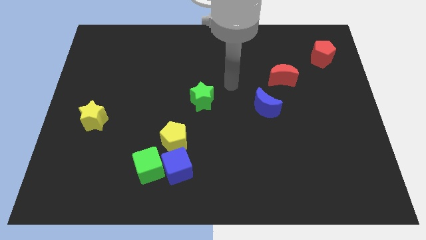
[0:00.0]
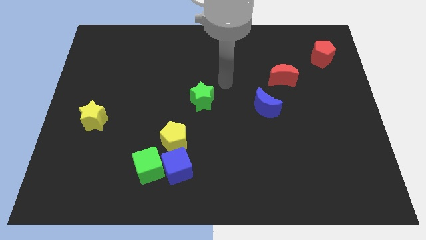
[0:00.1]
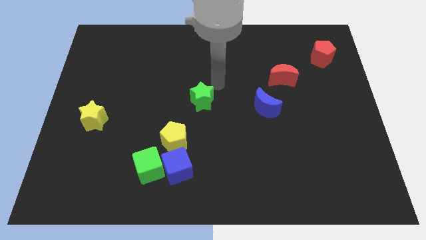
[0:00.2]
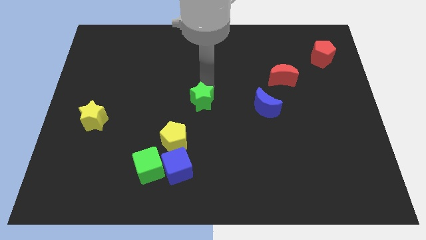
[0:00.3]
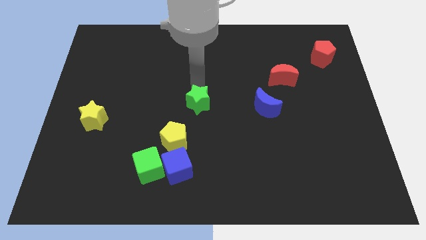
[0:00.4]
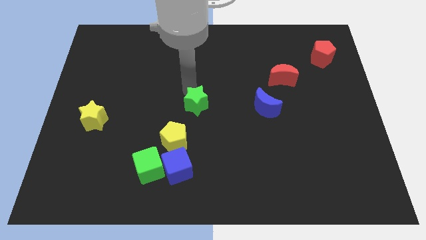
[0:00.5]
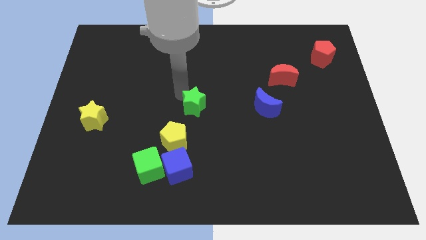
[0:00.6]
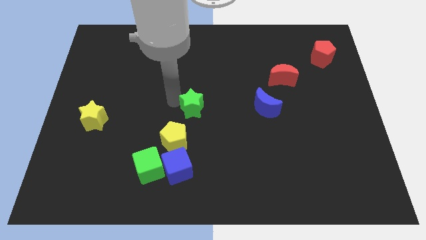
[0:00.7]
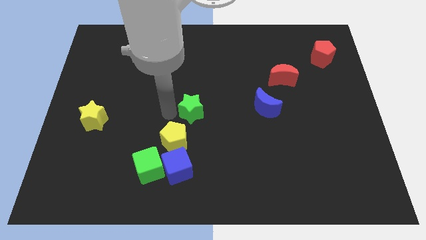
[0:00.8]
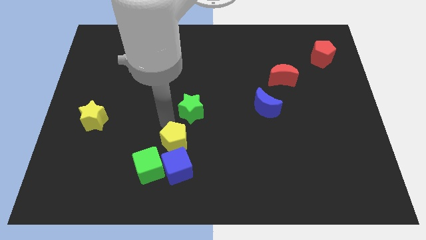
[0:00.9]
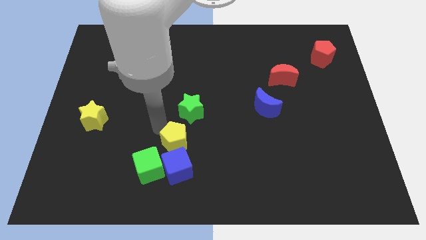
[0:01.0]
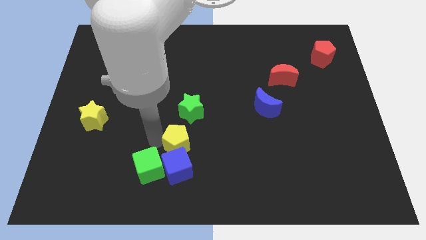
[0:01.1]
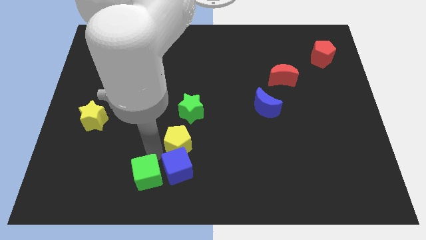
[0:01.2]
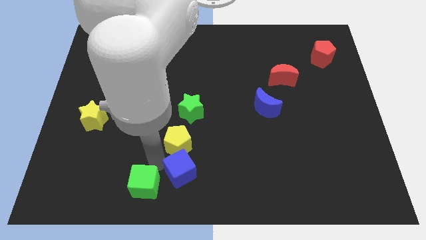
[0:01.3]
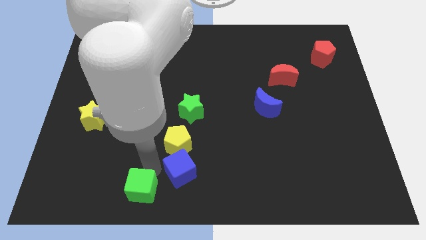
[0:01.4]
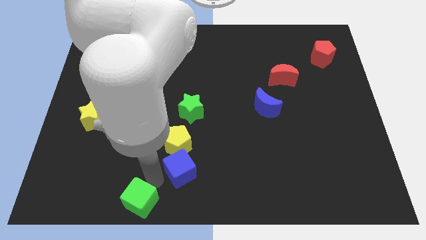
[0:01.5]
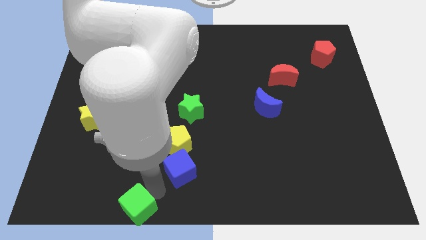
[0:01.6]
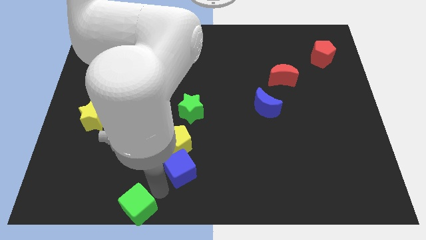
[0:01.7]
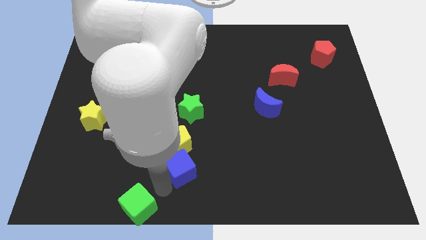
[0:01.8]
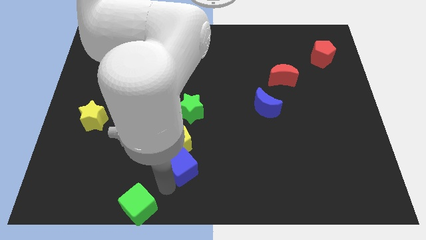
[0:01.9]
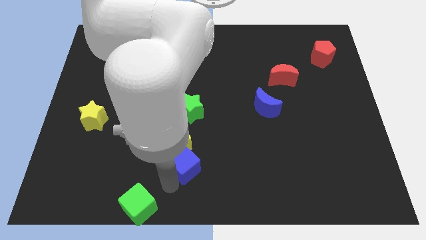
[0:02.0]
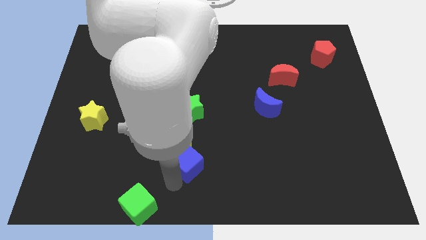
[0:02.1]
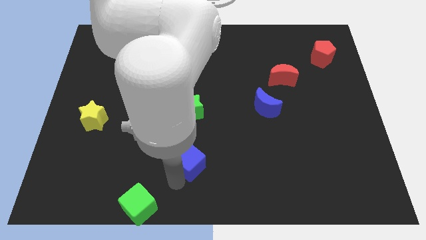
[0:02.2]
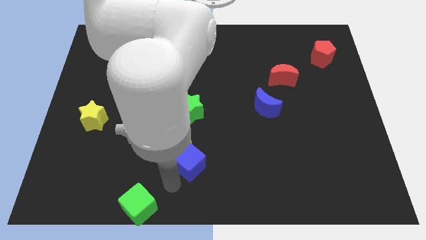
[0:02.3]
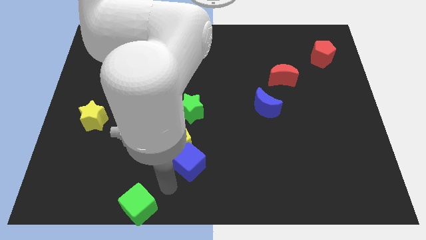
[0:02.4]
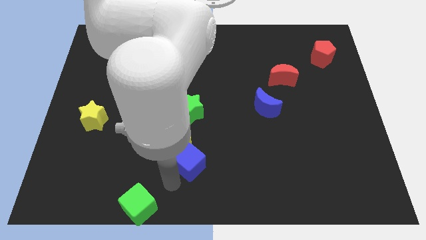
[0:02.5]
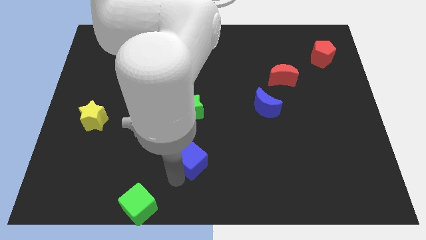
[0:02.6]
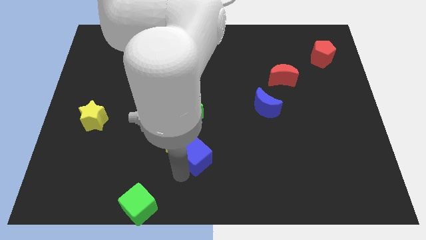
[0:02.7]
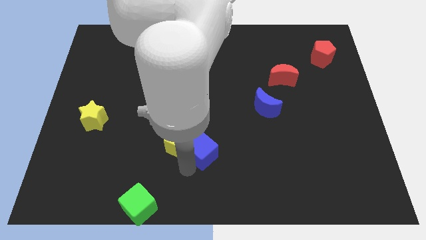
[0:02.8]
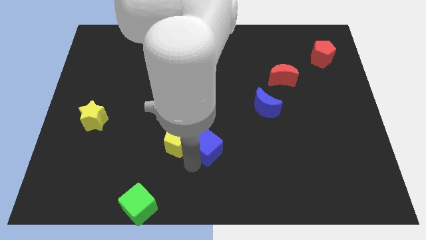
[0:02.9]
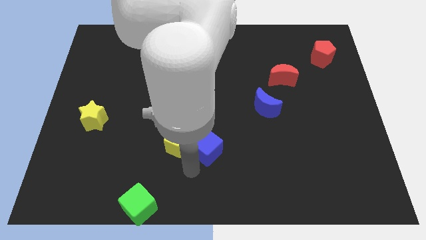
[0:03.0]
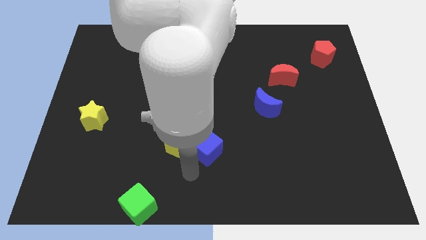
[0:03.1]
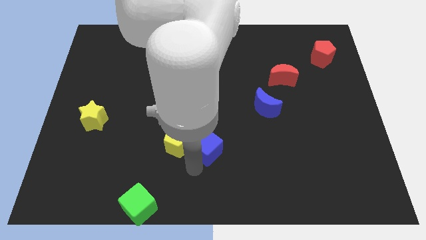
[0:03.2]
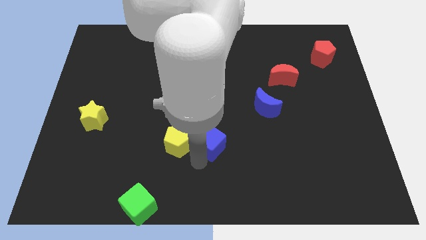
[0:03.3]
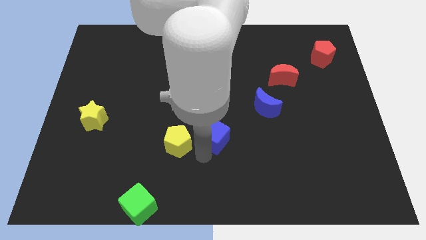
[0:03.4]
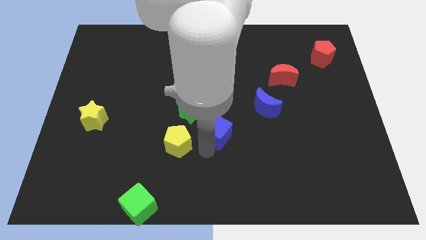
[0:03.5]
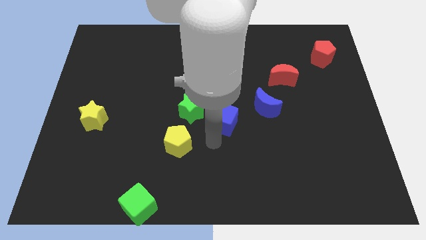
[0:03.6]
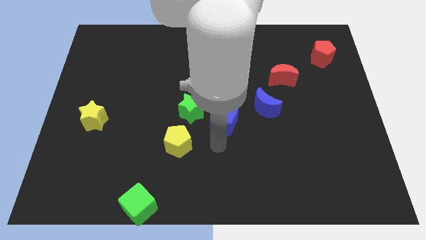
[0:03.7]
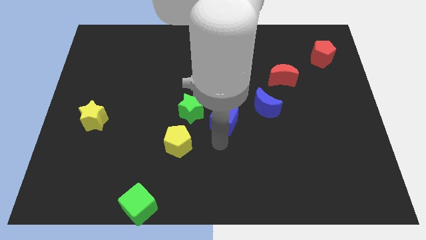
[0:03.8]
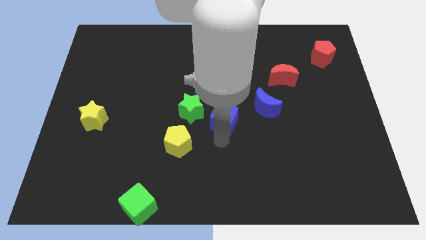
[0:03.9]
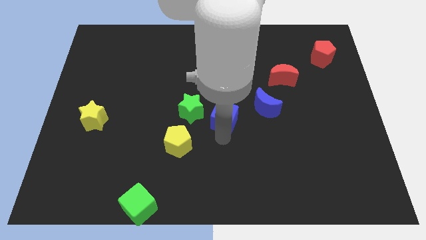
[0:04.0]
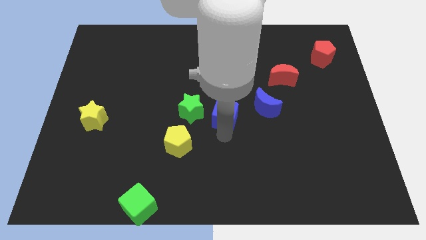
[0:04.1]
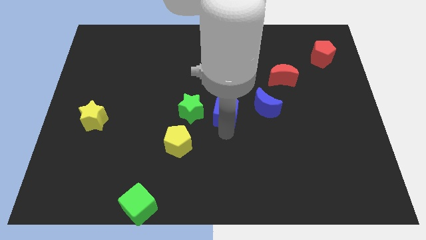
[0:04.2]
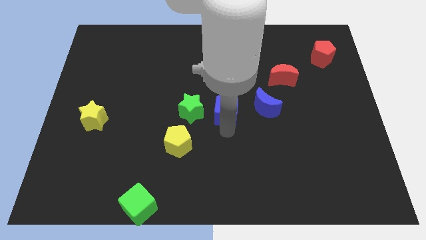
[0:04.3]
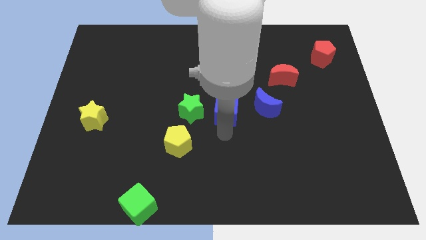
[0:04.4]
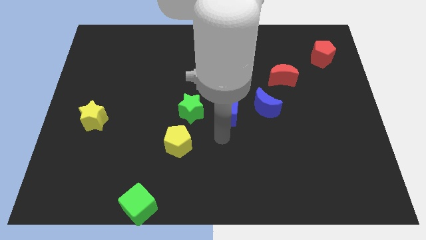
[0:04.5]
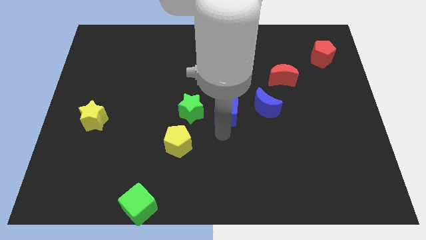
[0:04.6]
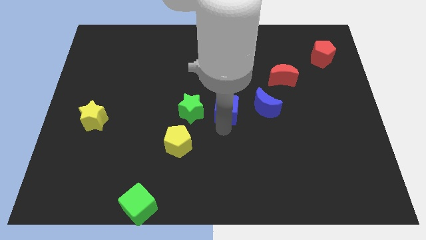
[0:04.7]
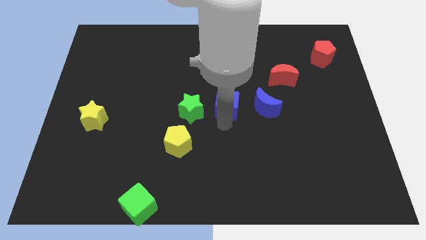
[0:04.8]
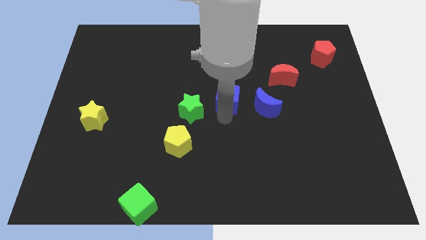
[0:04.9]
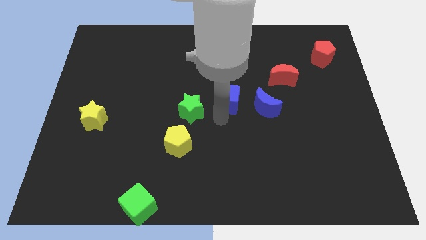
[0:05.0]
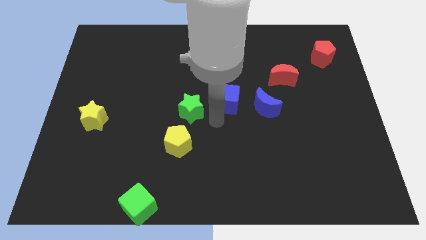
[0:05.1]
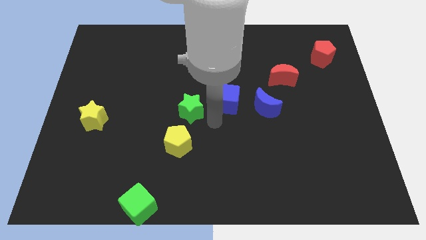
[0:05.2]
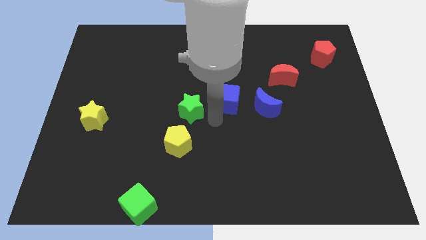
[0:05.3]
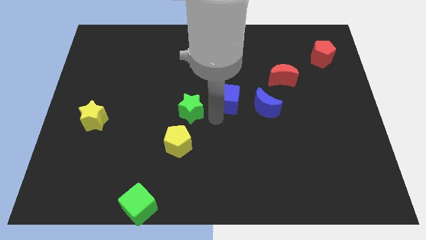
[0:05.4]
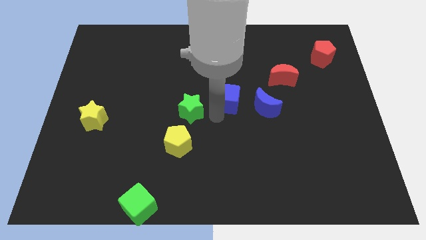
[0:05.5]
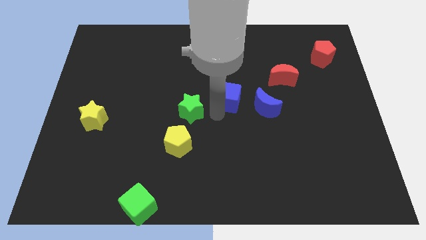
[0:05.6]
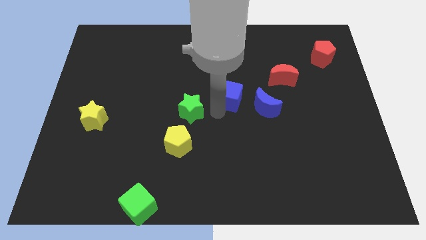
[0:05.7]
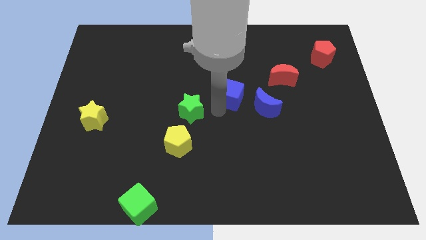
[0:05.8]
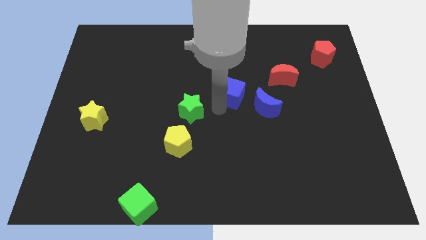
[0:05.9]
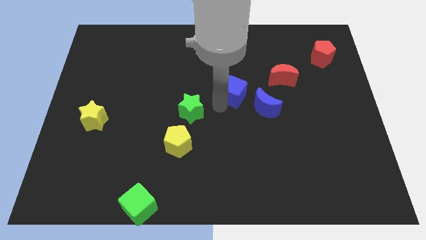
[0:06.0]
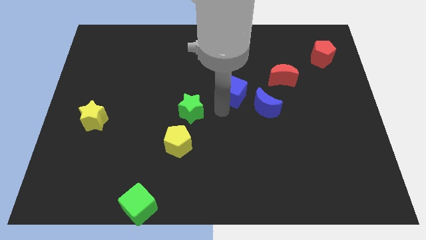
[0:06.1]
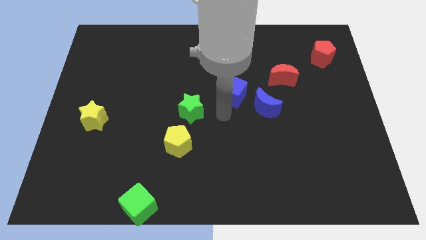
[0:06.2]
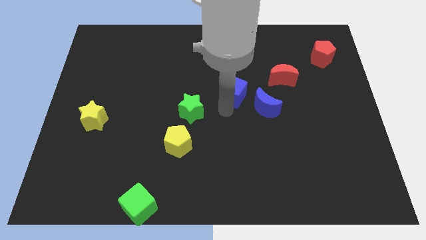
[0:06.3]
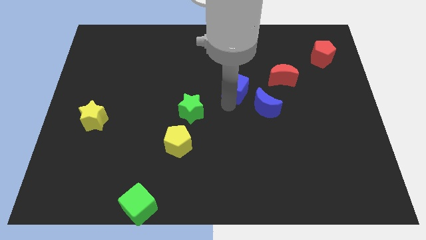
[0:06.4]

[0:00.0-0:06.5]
move the blue cube left of the red moon
